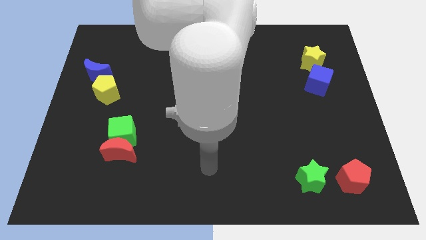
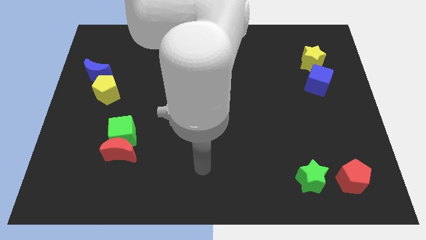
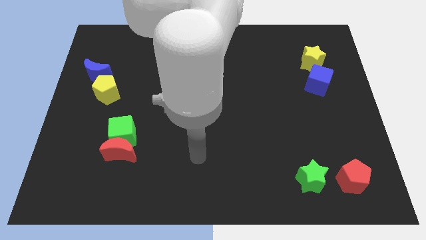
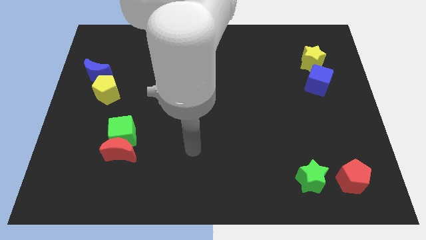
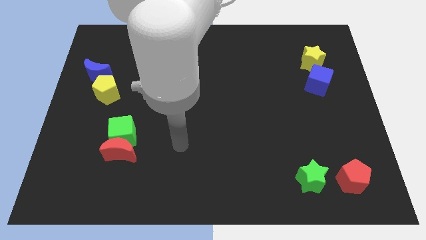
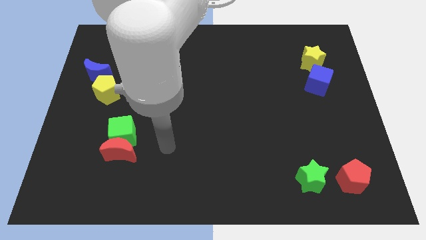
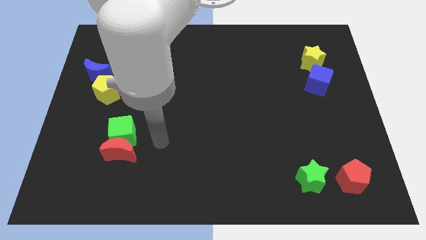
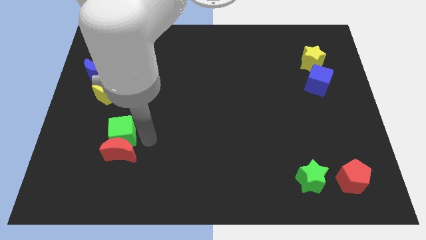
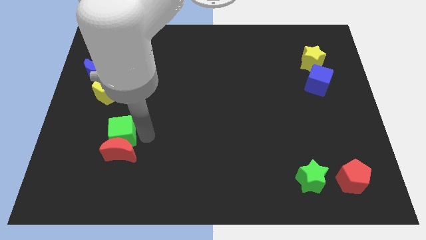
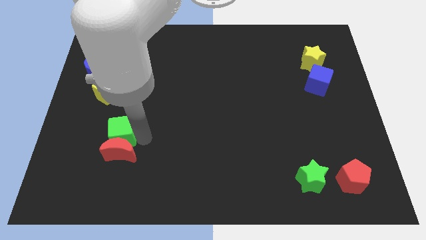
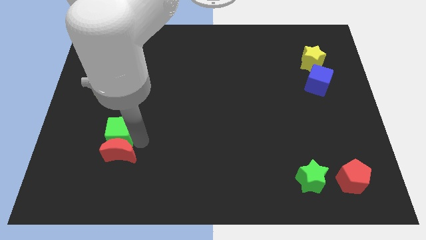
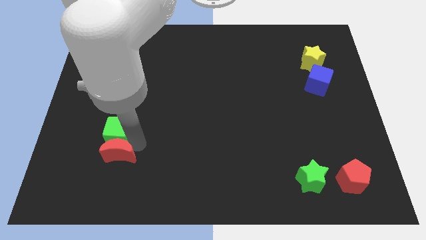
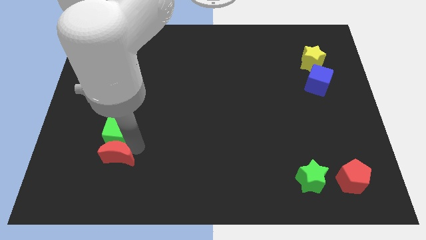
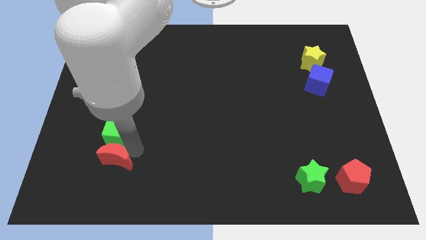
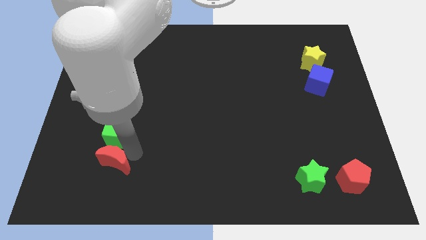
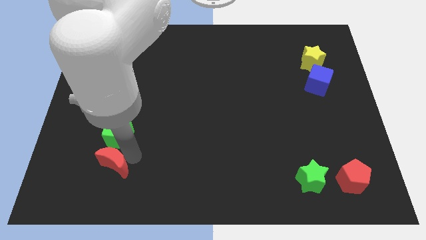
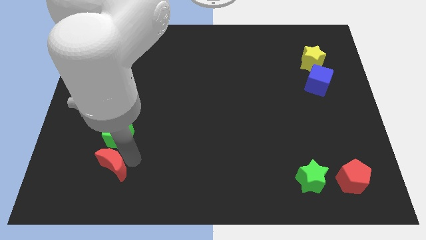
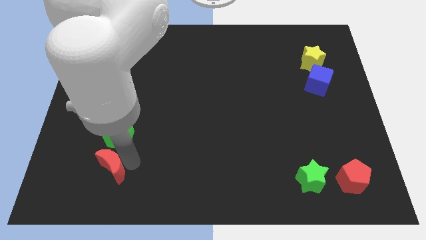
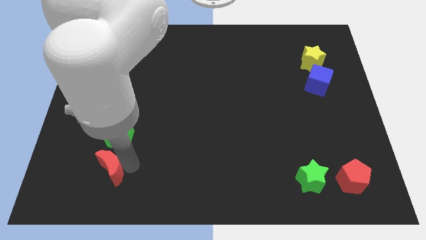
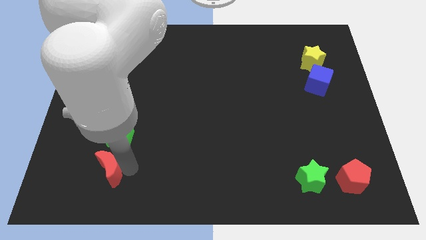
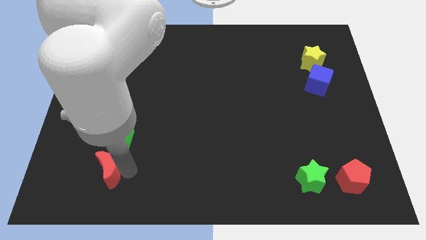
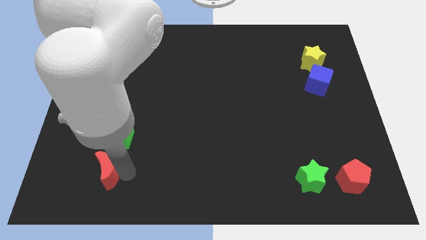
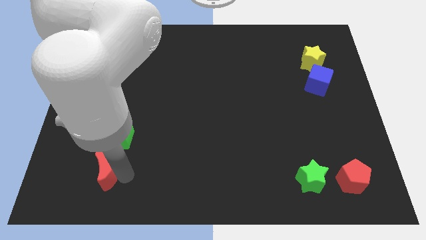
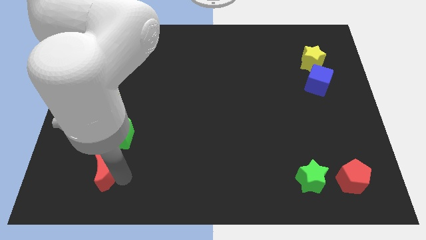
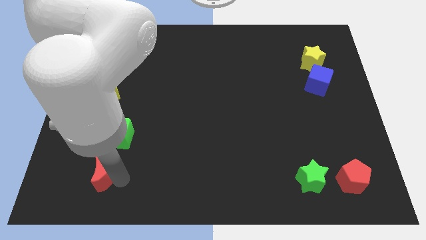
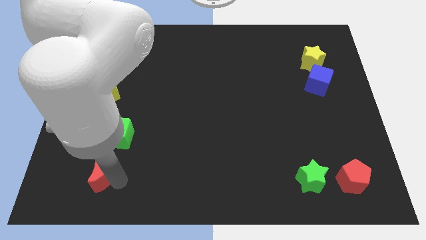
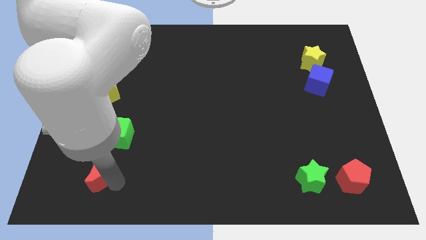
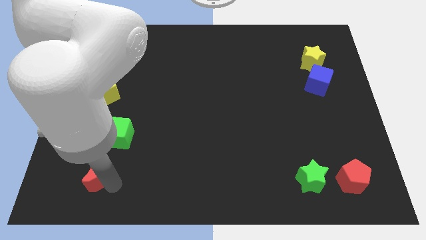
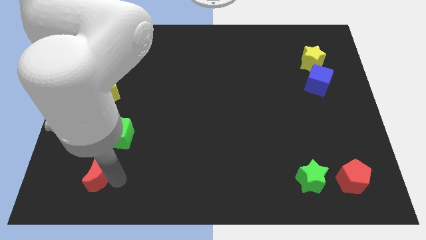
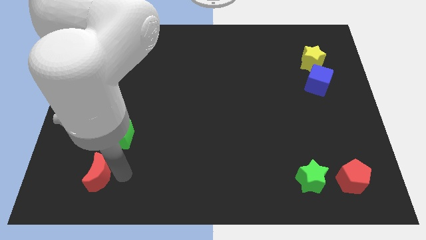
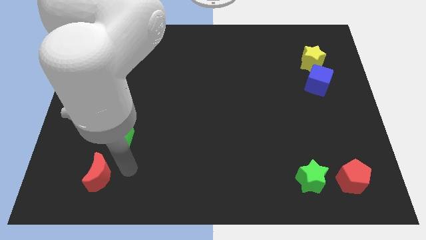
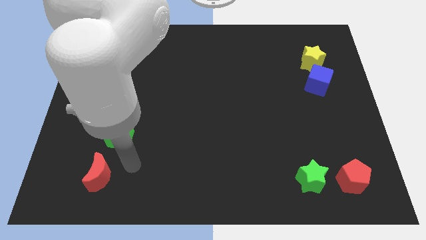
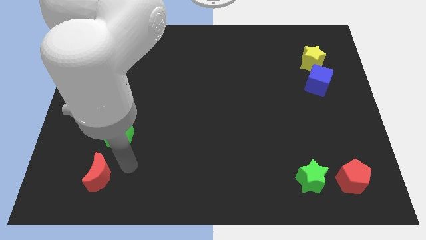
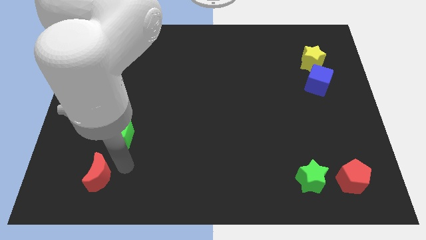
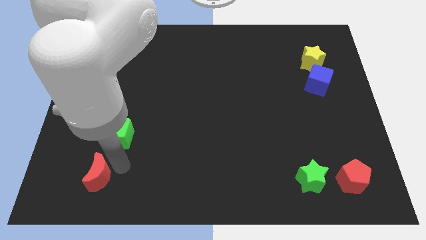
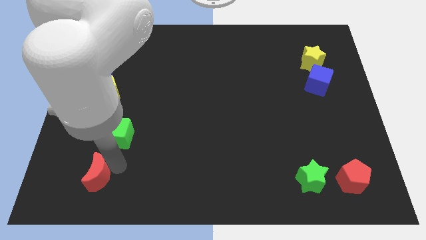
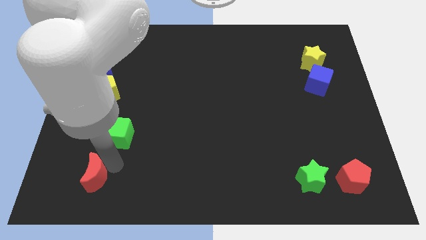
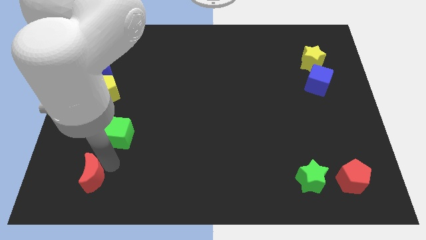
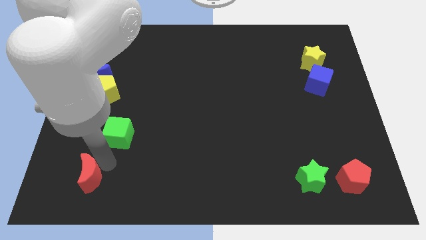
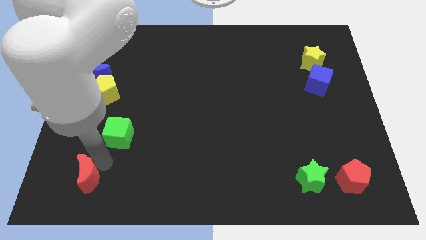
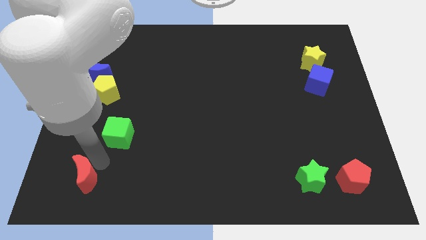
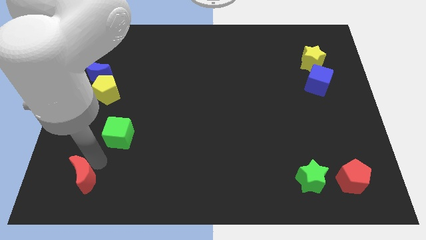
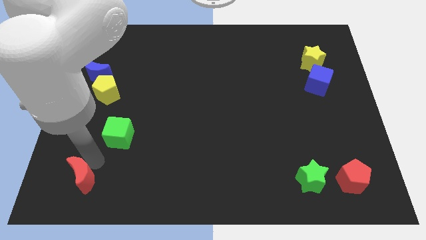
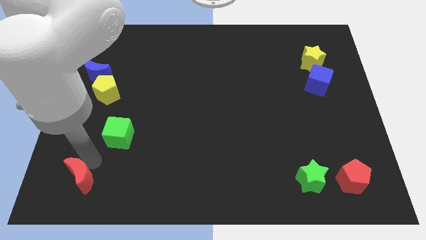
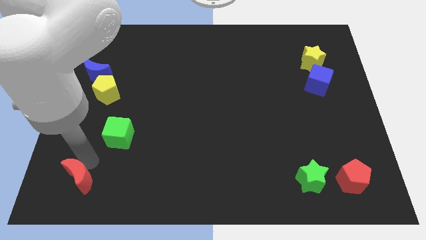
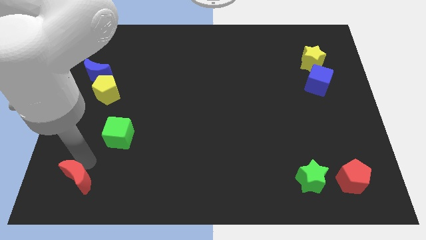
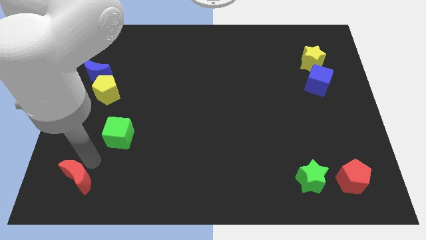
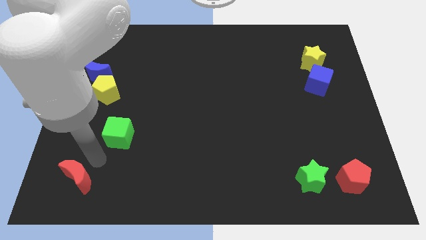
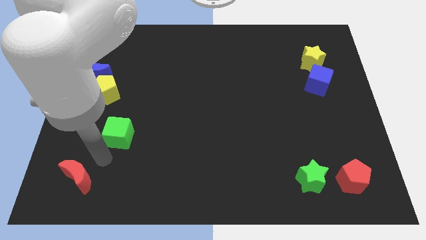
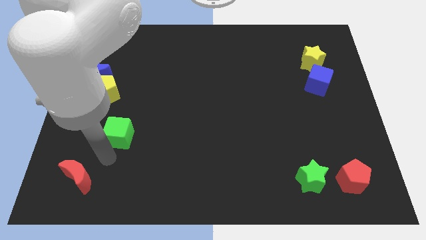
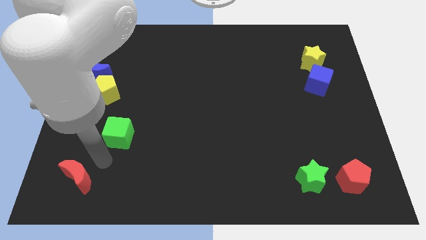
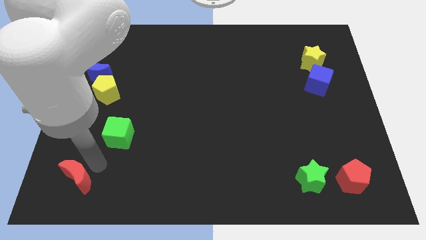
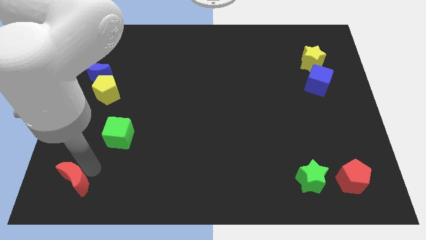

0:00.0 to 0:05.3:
push the red moon to the bottom left of the board
